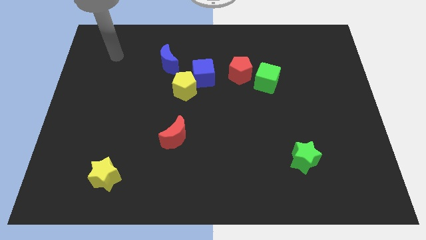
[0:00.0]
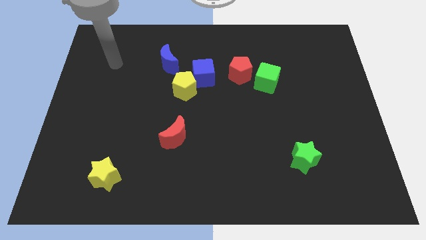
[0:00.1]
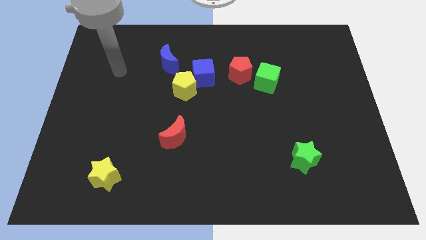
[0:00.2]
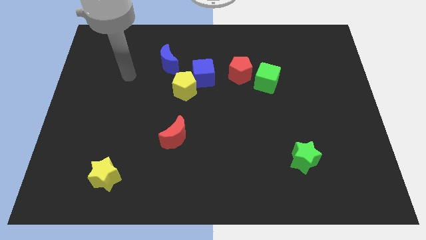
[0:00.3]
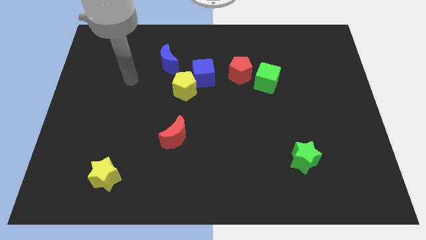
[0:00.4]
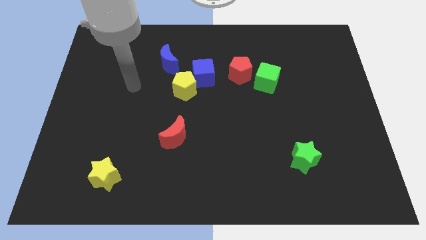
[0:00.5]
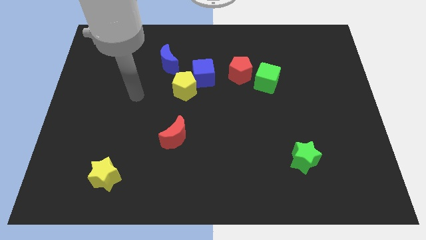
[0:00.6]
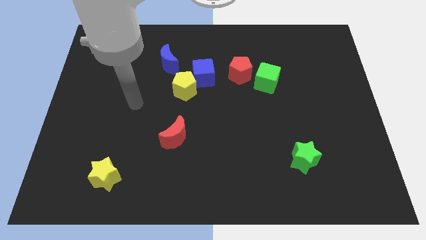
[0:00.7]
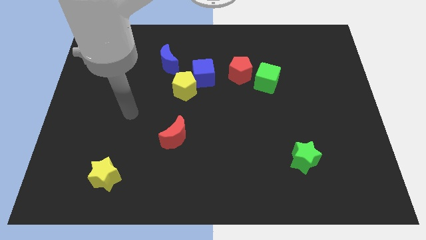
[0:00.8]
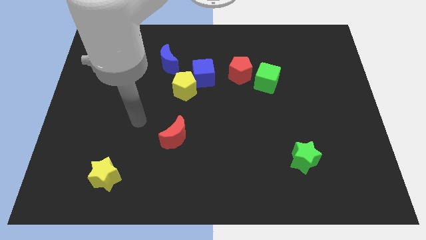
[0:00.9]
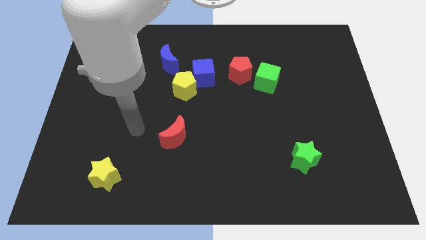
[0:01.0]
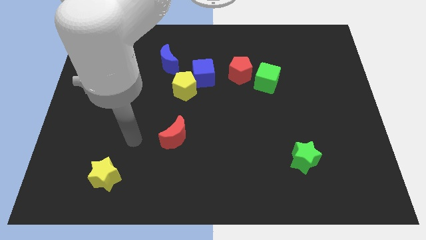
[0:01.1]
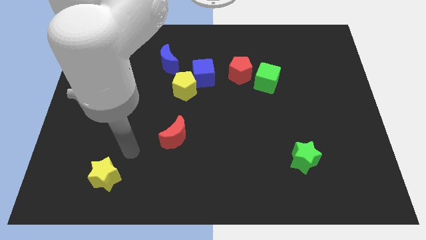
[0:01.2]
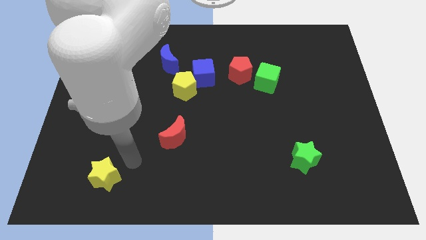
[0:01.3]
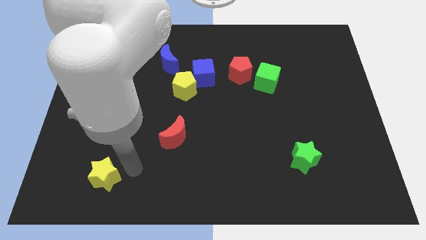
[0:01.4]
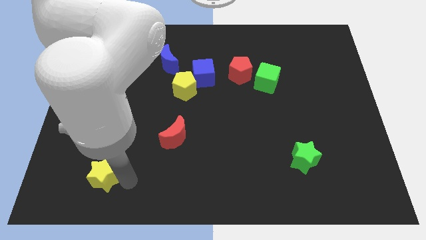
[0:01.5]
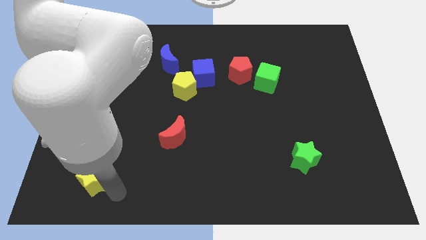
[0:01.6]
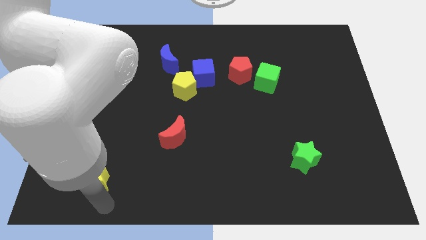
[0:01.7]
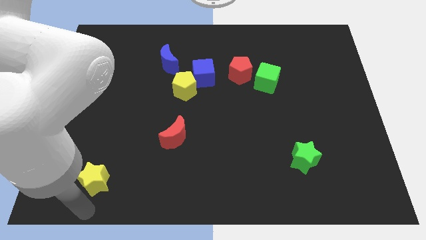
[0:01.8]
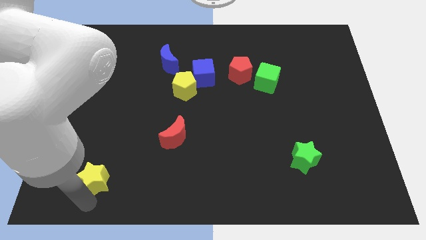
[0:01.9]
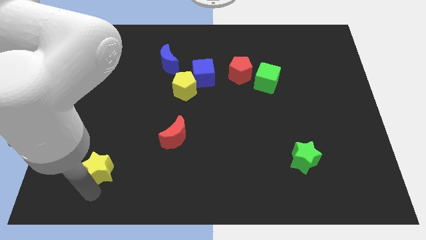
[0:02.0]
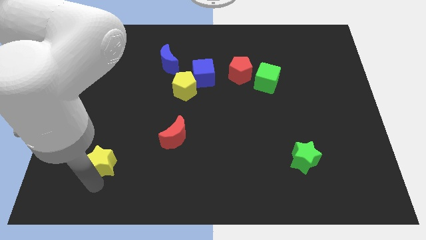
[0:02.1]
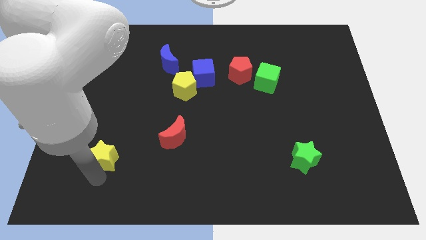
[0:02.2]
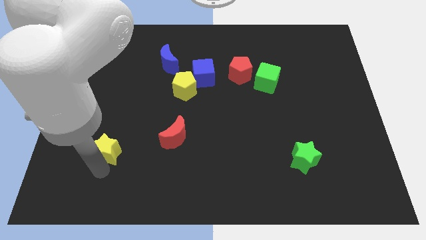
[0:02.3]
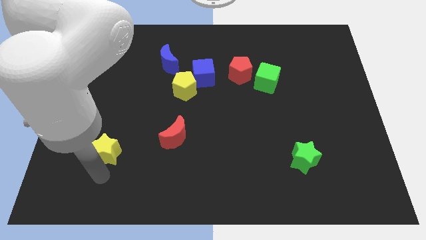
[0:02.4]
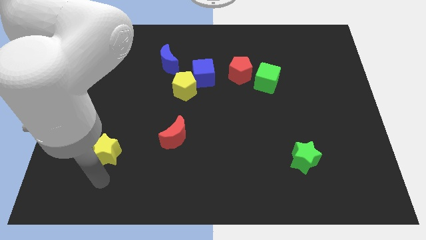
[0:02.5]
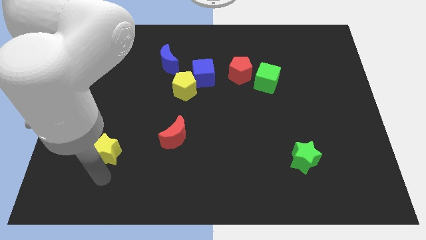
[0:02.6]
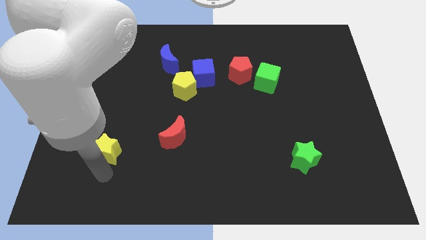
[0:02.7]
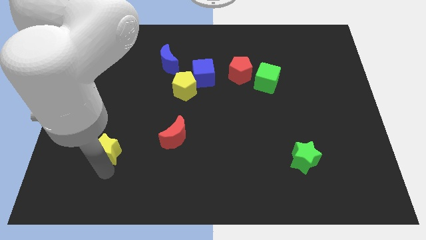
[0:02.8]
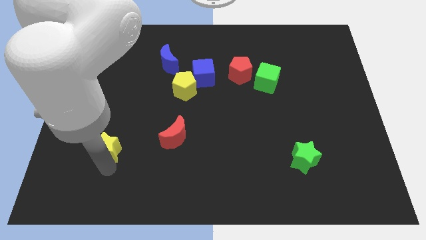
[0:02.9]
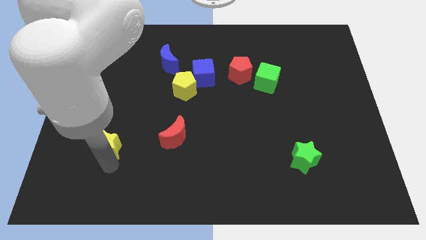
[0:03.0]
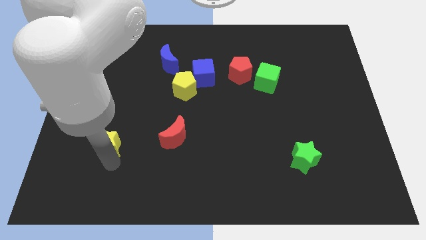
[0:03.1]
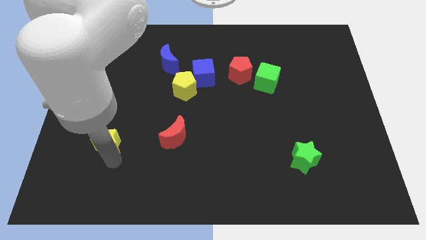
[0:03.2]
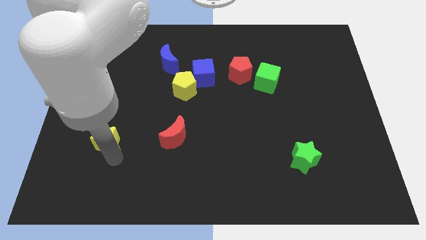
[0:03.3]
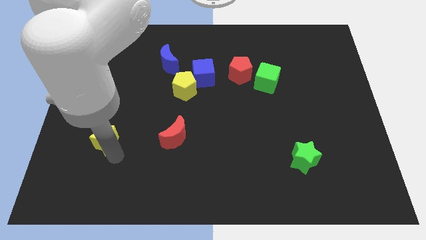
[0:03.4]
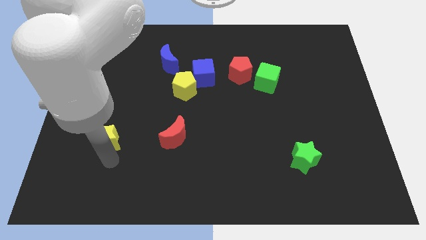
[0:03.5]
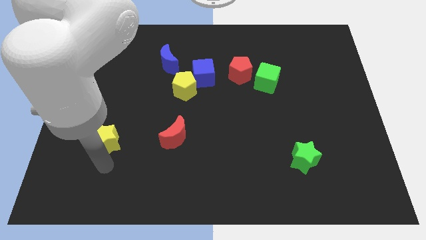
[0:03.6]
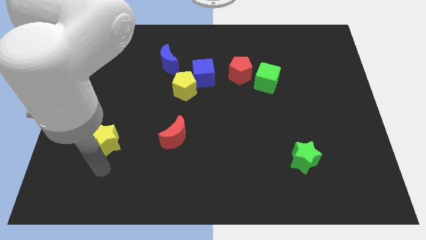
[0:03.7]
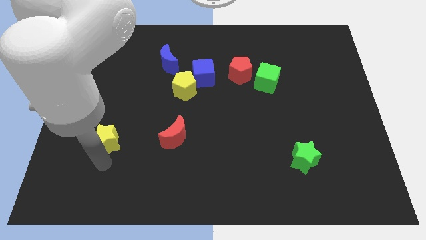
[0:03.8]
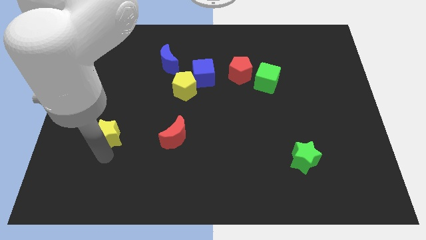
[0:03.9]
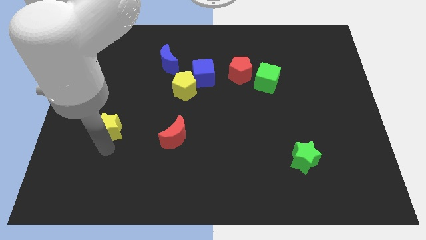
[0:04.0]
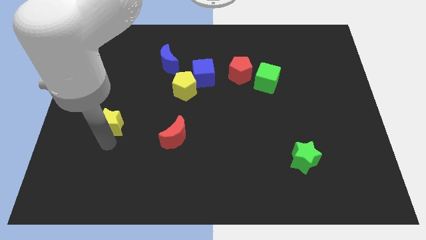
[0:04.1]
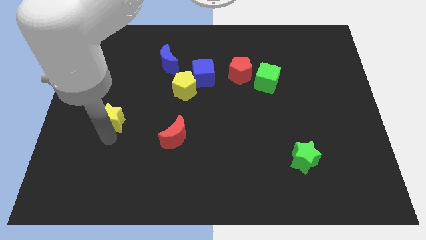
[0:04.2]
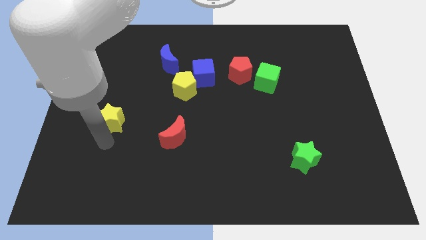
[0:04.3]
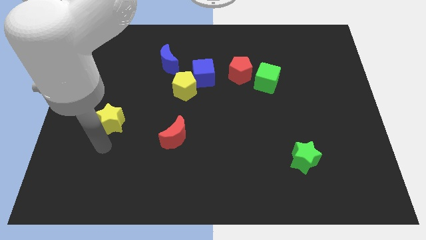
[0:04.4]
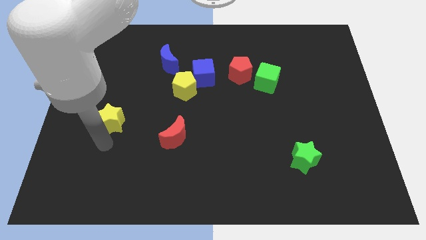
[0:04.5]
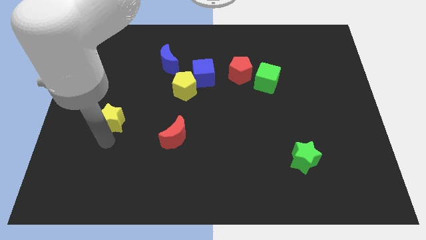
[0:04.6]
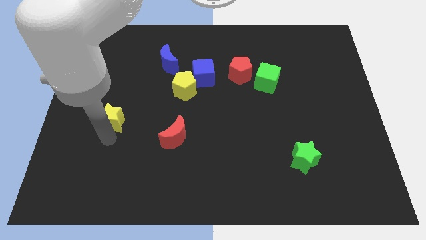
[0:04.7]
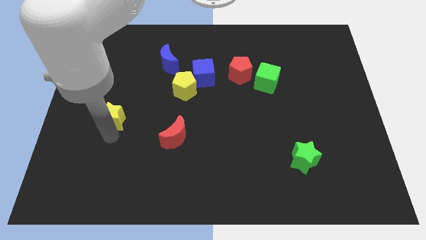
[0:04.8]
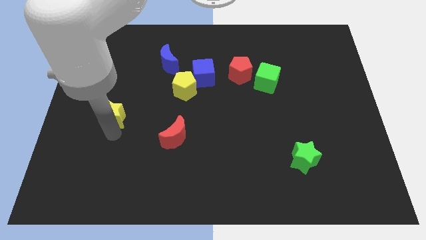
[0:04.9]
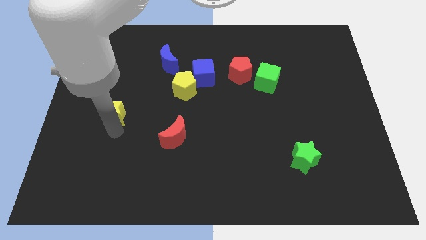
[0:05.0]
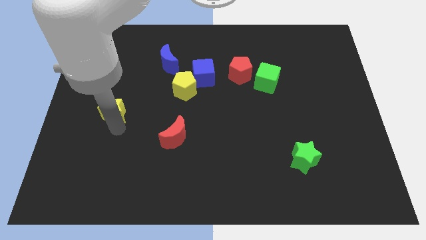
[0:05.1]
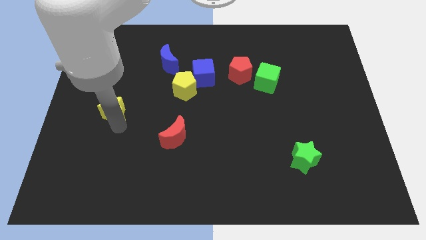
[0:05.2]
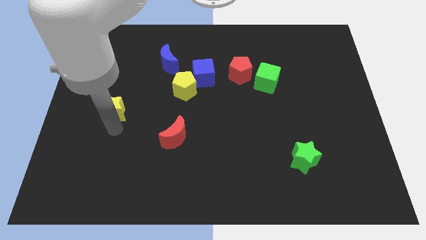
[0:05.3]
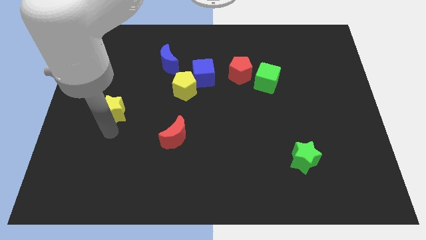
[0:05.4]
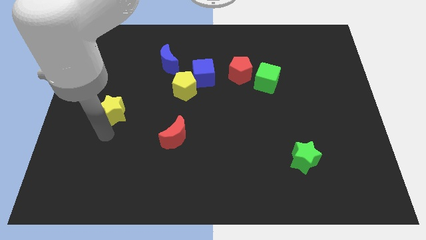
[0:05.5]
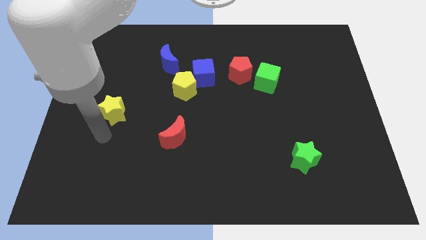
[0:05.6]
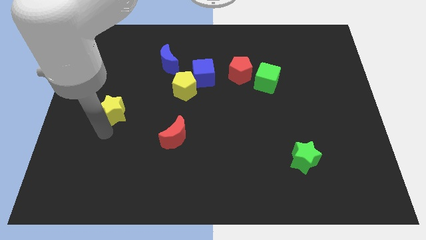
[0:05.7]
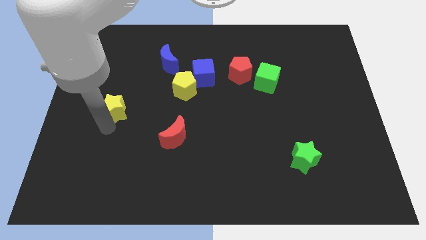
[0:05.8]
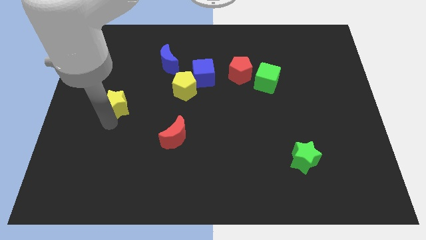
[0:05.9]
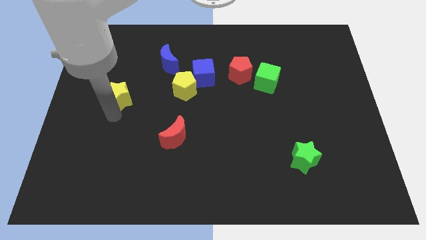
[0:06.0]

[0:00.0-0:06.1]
move the yellow star upwards

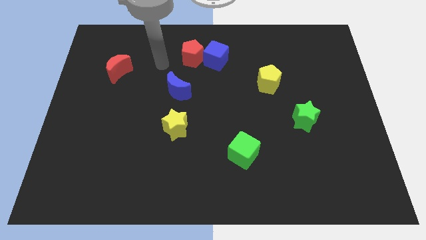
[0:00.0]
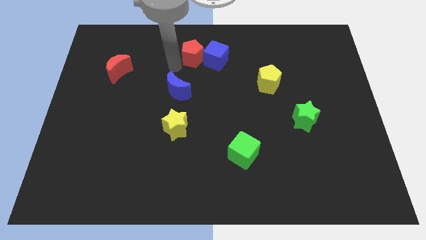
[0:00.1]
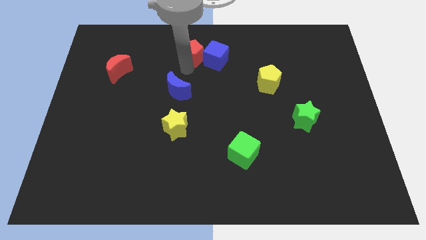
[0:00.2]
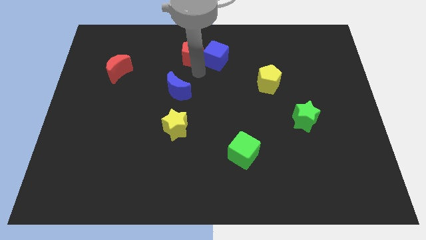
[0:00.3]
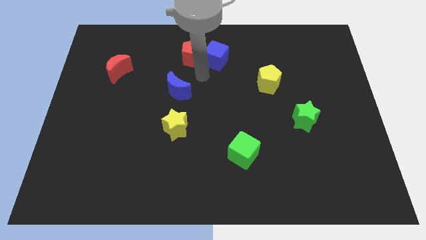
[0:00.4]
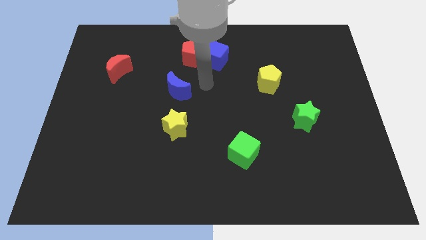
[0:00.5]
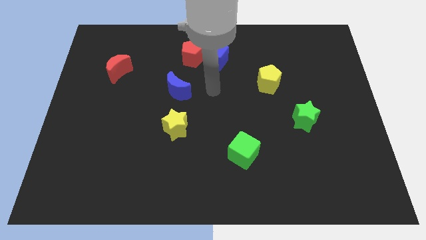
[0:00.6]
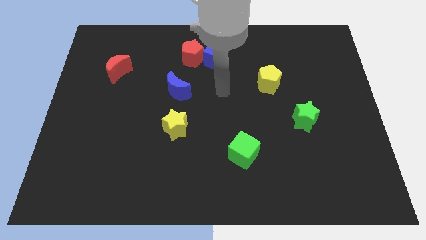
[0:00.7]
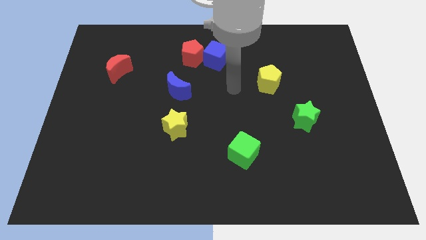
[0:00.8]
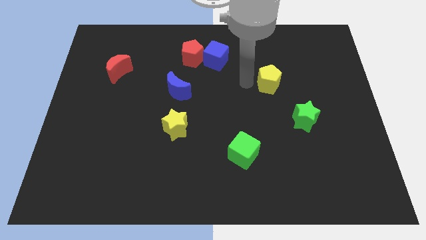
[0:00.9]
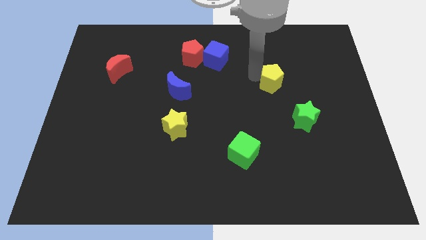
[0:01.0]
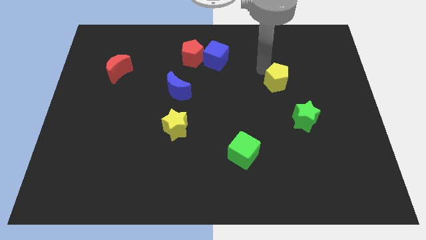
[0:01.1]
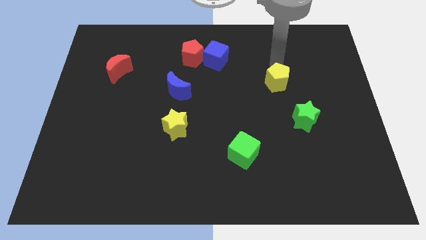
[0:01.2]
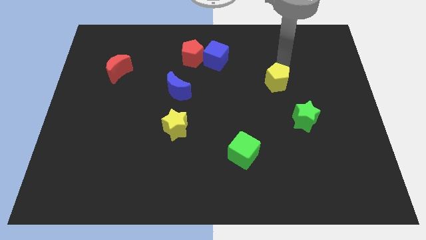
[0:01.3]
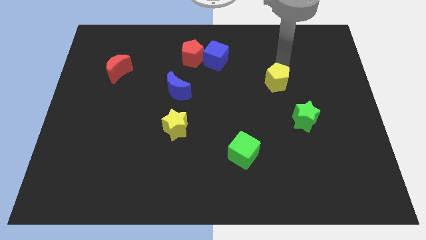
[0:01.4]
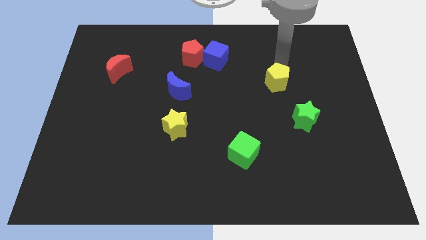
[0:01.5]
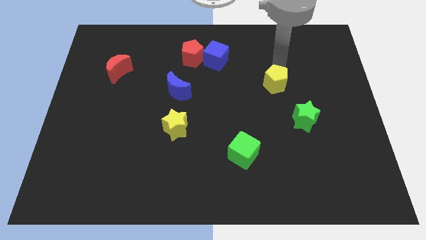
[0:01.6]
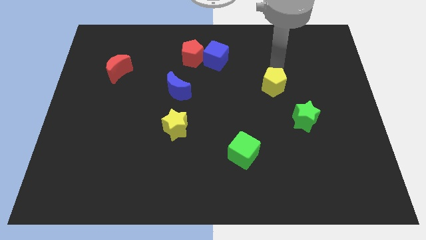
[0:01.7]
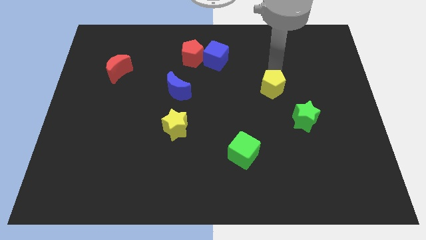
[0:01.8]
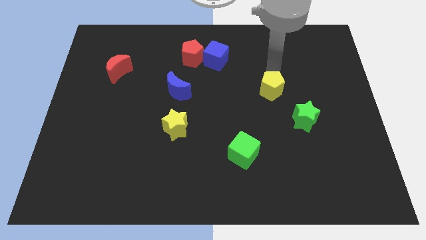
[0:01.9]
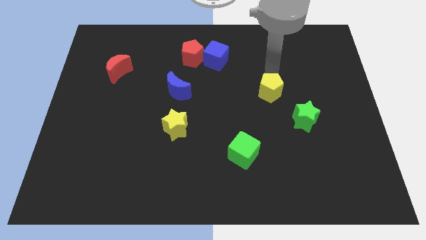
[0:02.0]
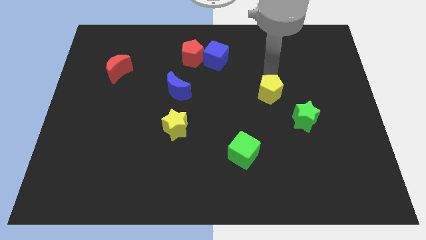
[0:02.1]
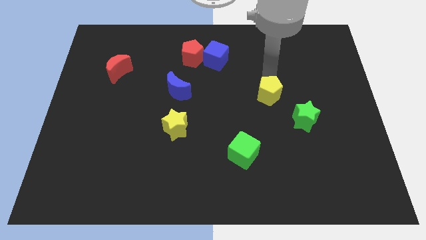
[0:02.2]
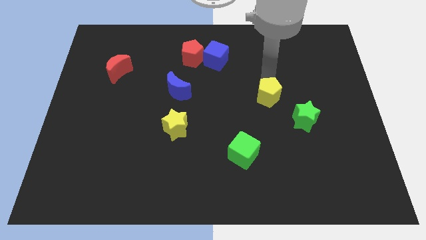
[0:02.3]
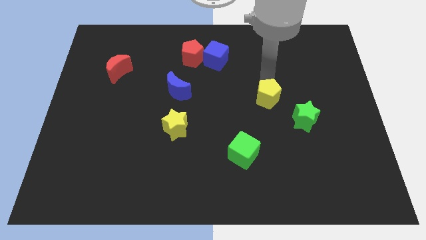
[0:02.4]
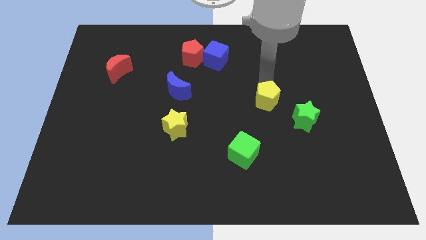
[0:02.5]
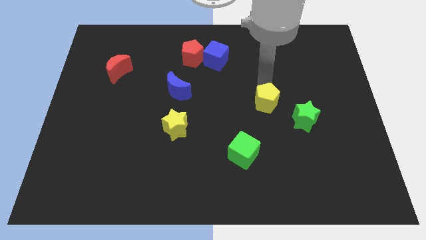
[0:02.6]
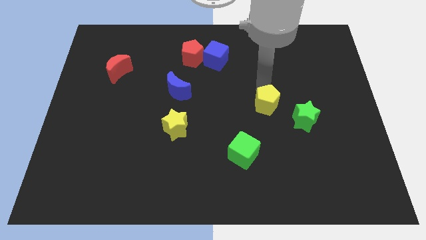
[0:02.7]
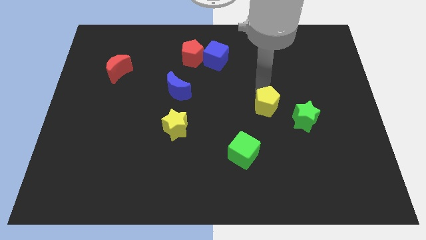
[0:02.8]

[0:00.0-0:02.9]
move the yellow pentagon a little down
